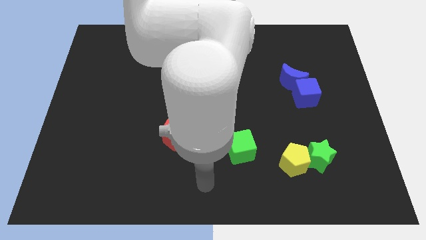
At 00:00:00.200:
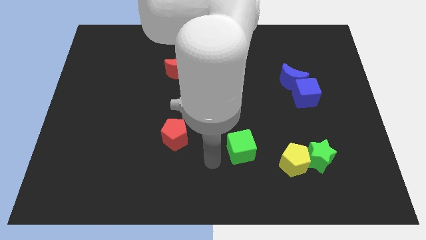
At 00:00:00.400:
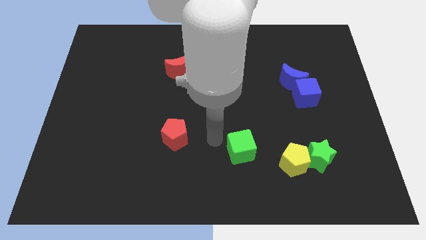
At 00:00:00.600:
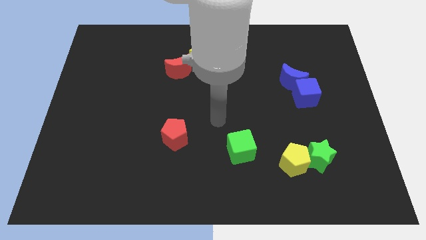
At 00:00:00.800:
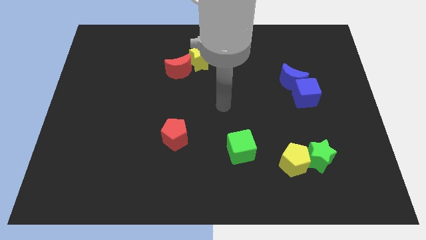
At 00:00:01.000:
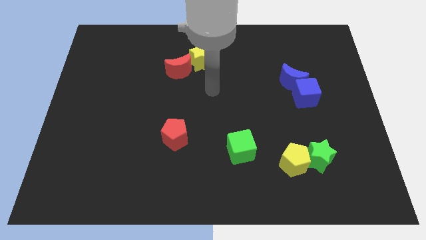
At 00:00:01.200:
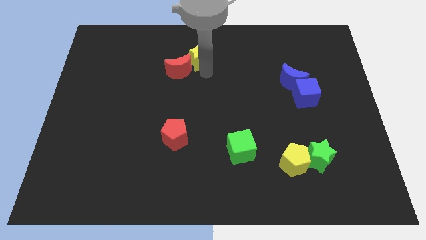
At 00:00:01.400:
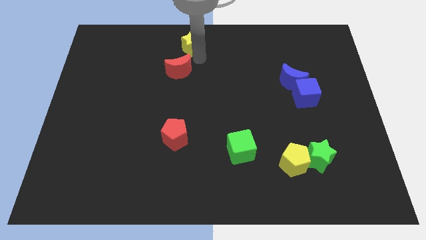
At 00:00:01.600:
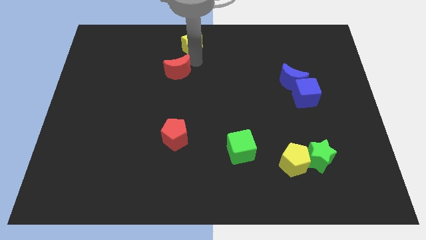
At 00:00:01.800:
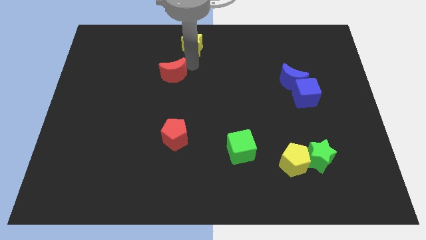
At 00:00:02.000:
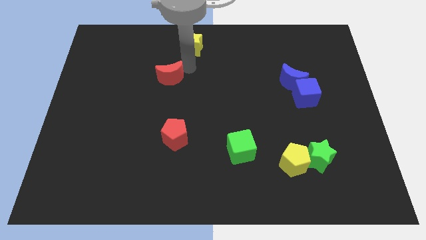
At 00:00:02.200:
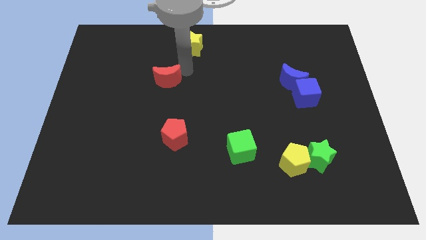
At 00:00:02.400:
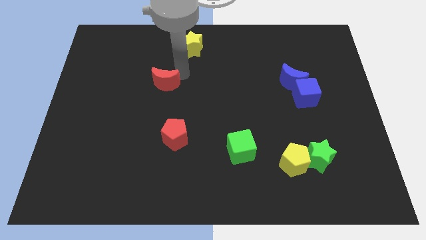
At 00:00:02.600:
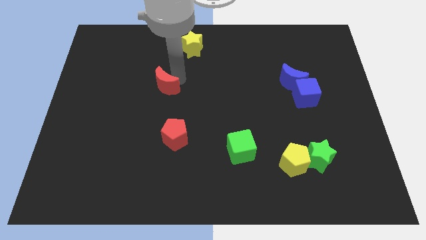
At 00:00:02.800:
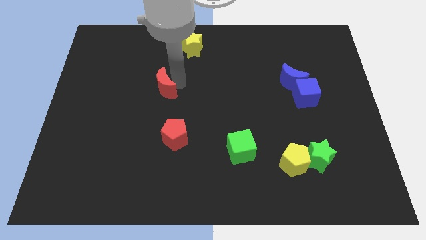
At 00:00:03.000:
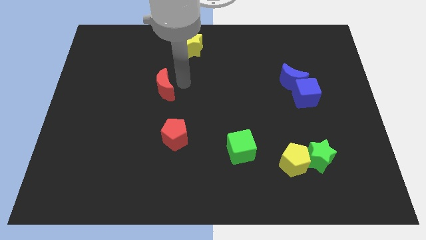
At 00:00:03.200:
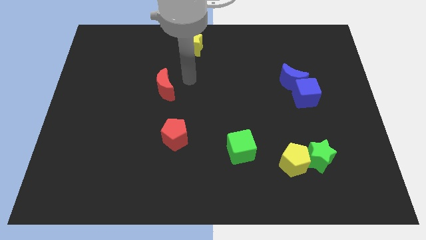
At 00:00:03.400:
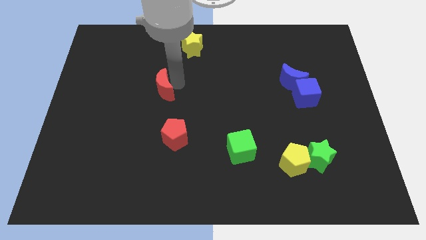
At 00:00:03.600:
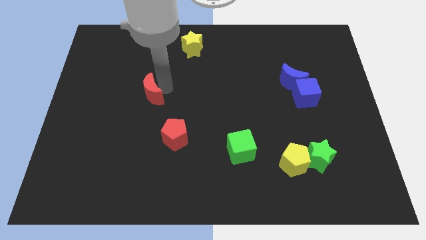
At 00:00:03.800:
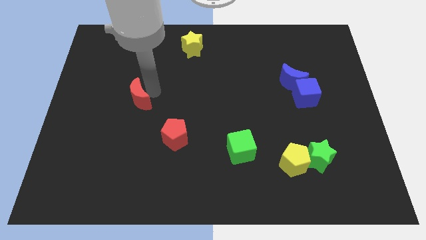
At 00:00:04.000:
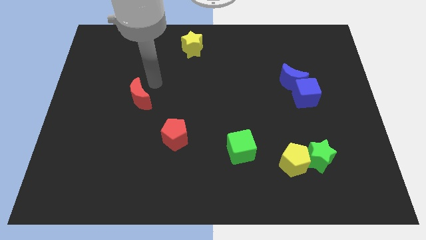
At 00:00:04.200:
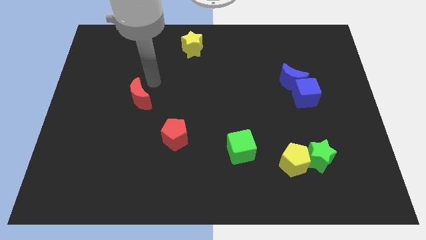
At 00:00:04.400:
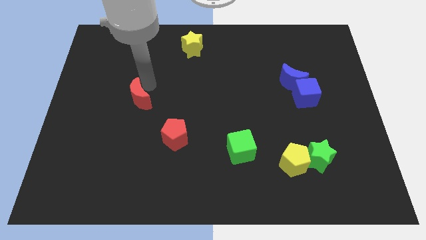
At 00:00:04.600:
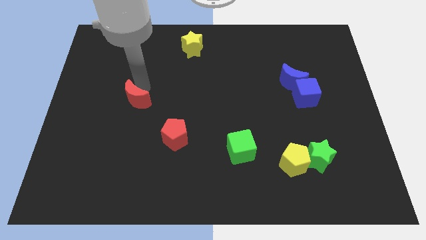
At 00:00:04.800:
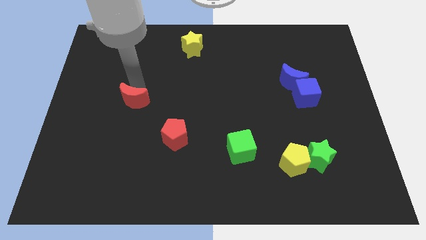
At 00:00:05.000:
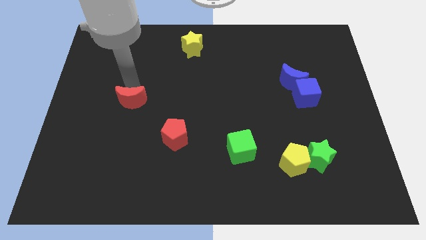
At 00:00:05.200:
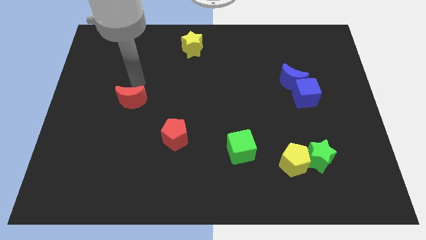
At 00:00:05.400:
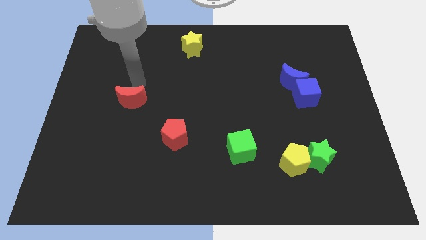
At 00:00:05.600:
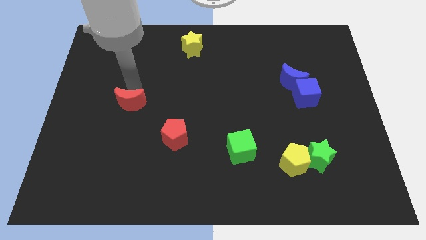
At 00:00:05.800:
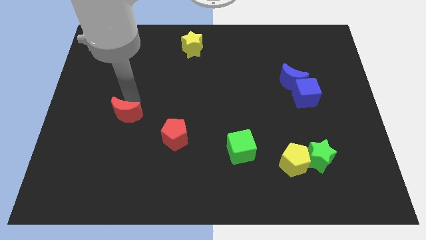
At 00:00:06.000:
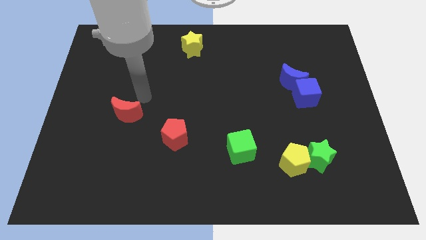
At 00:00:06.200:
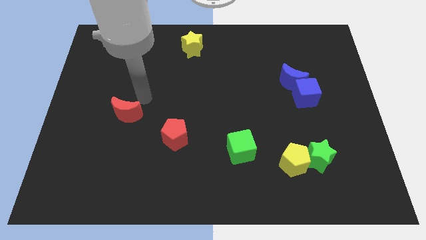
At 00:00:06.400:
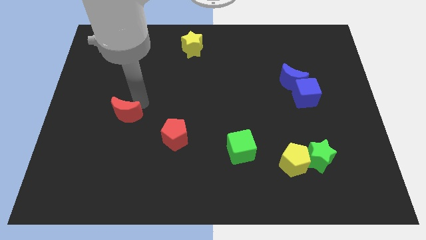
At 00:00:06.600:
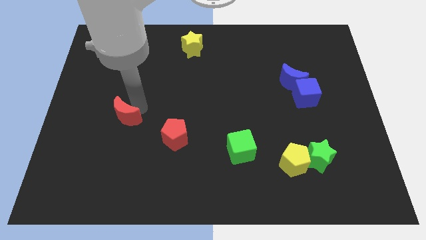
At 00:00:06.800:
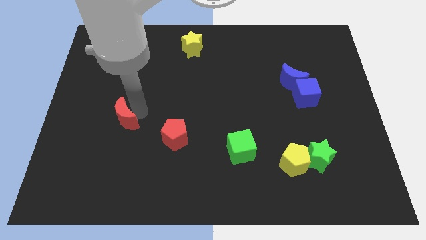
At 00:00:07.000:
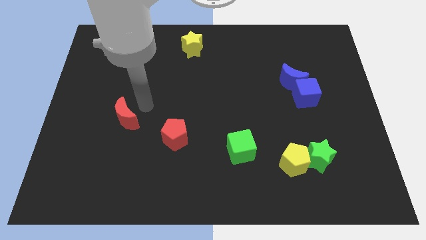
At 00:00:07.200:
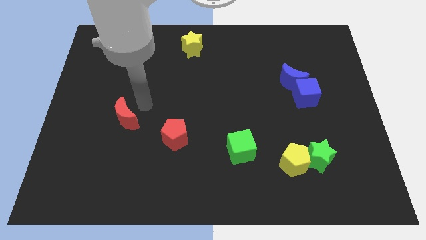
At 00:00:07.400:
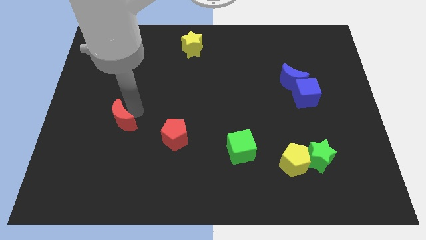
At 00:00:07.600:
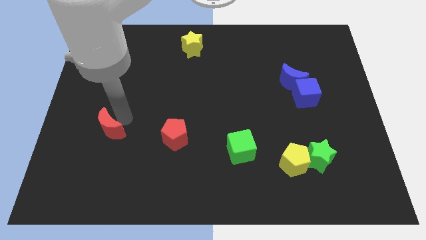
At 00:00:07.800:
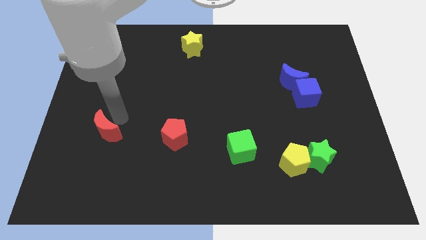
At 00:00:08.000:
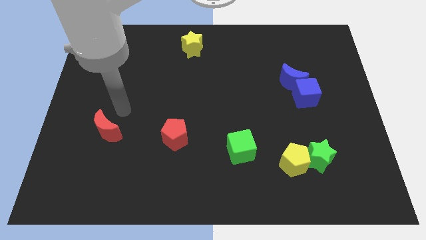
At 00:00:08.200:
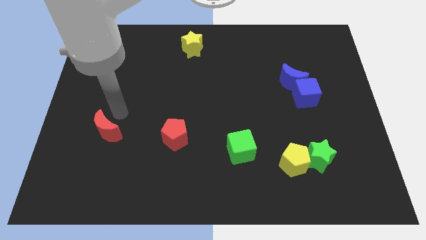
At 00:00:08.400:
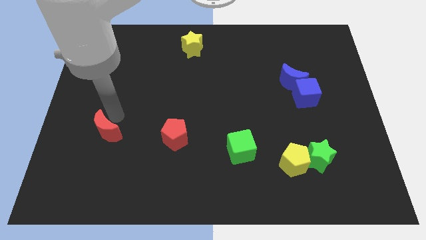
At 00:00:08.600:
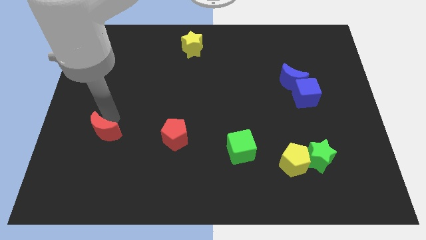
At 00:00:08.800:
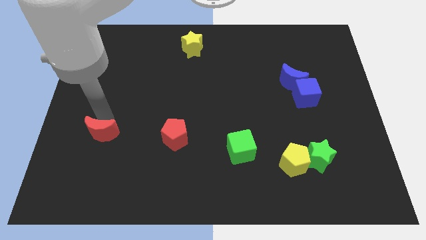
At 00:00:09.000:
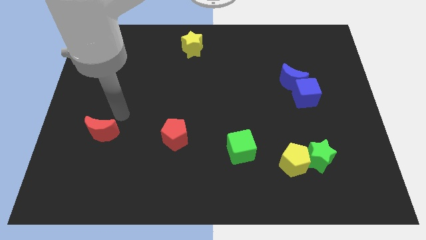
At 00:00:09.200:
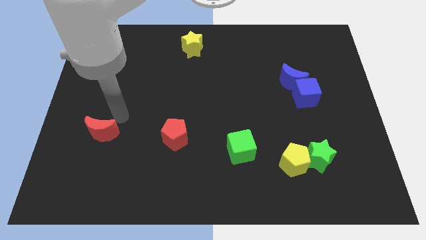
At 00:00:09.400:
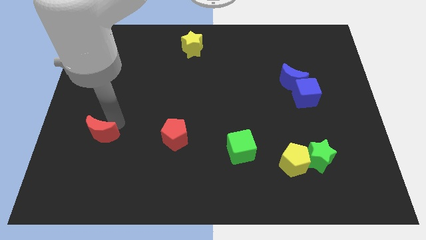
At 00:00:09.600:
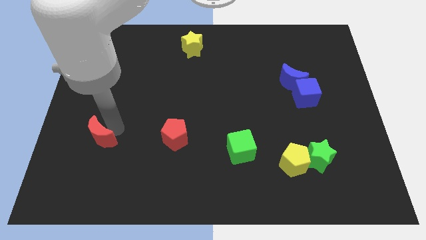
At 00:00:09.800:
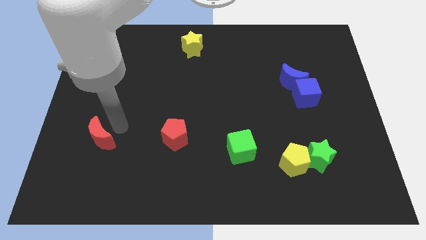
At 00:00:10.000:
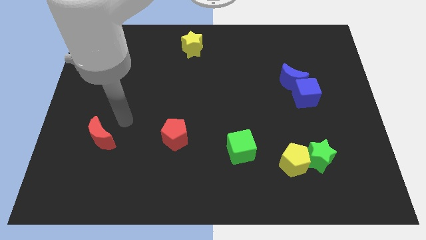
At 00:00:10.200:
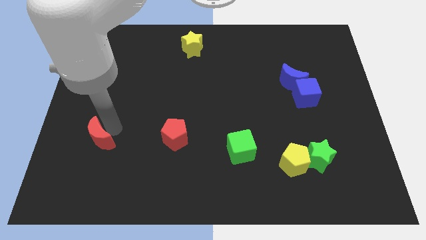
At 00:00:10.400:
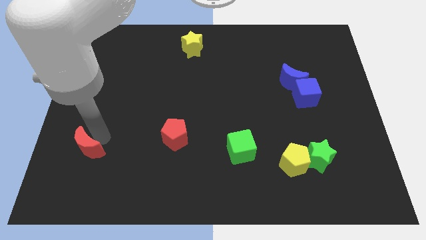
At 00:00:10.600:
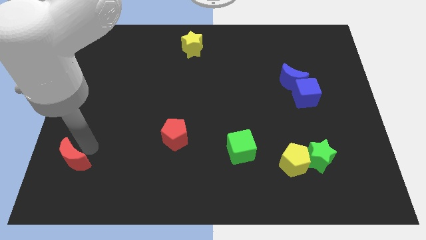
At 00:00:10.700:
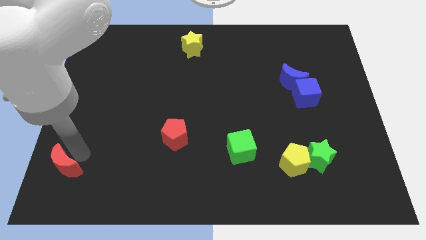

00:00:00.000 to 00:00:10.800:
move the red moon to the bottom left of the board

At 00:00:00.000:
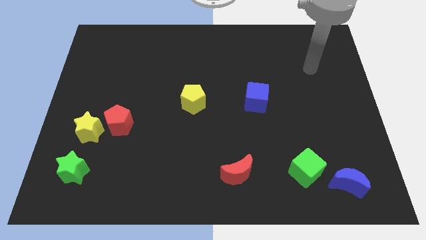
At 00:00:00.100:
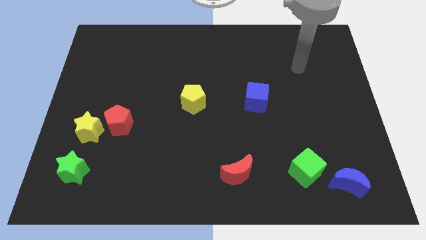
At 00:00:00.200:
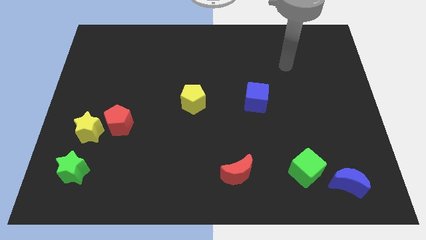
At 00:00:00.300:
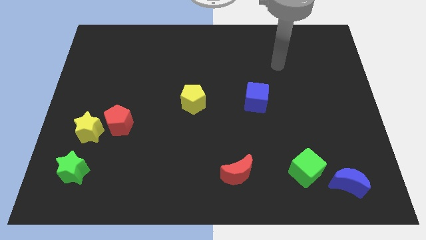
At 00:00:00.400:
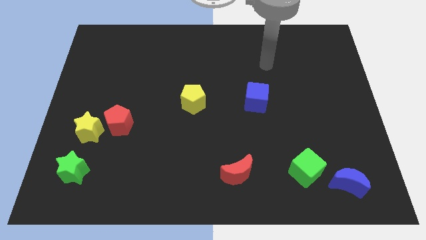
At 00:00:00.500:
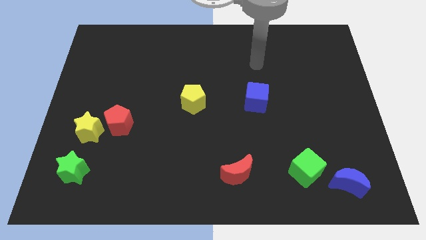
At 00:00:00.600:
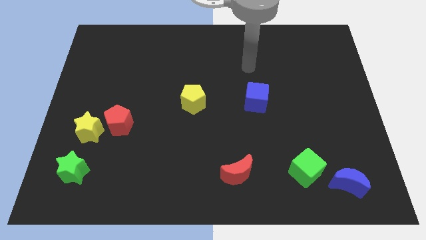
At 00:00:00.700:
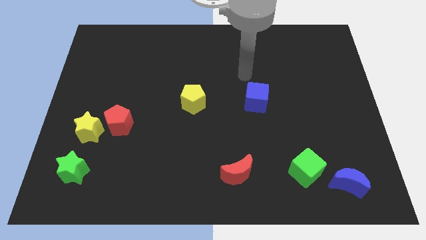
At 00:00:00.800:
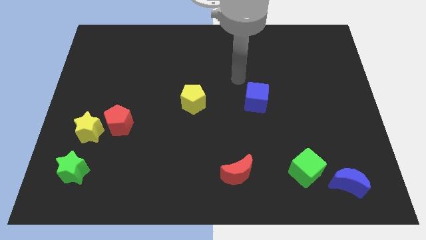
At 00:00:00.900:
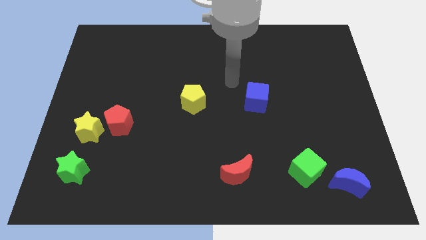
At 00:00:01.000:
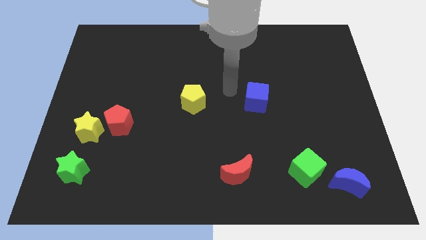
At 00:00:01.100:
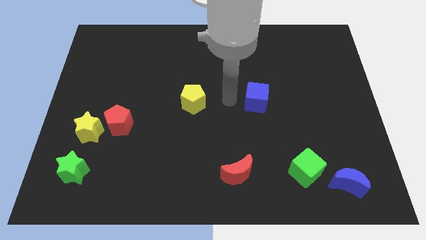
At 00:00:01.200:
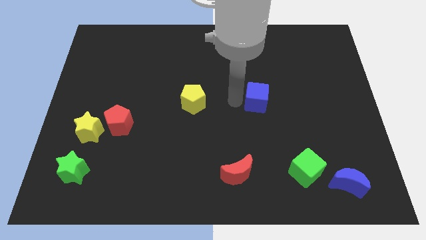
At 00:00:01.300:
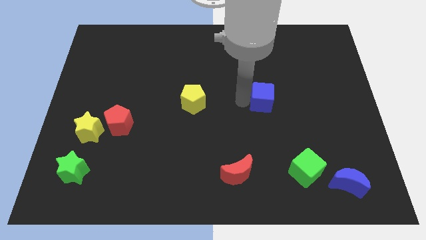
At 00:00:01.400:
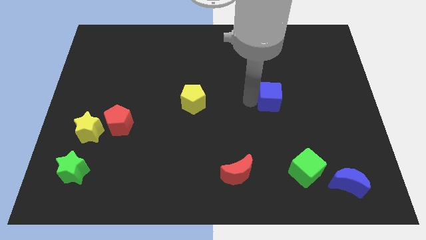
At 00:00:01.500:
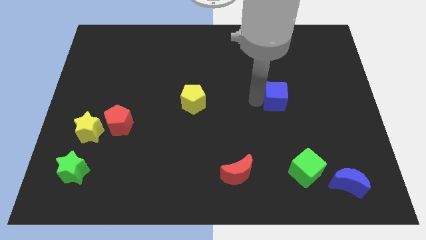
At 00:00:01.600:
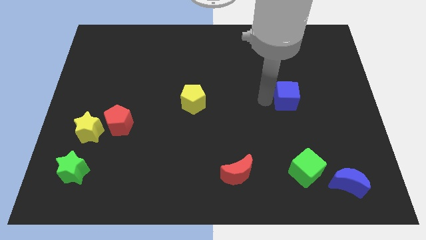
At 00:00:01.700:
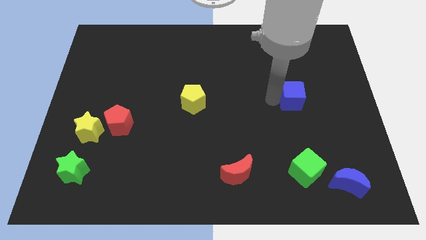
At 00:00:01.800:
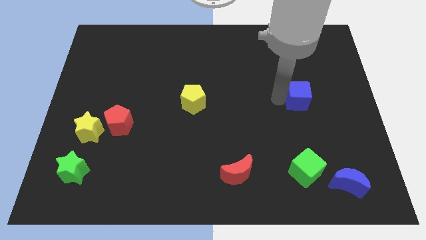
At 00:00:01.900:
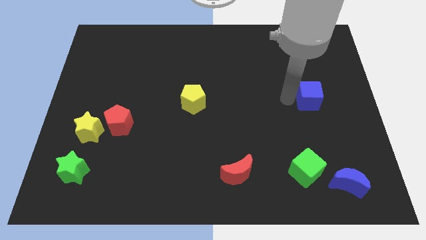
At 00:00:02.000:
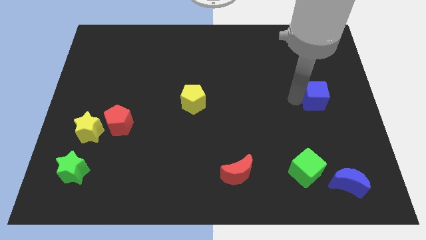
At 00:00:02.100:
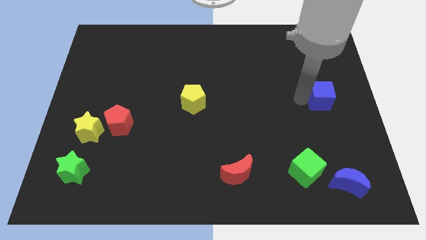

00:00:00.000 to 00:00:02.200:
move the blue cube to the center right

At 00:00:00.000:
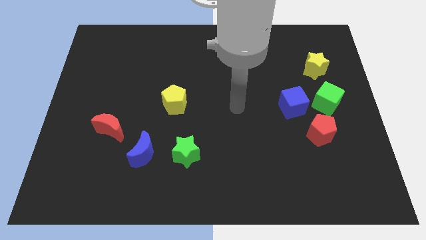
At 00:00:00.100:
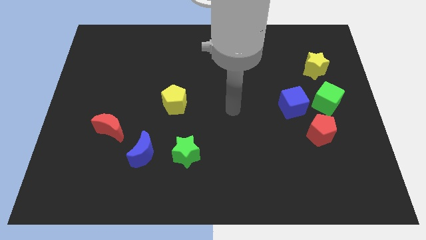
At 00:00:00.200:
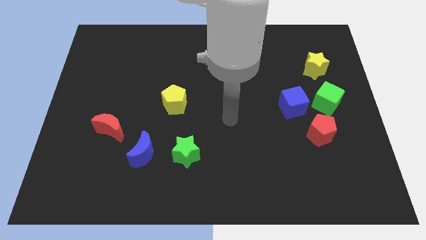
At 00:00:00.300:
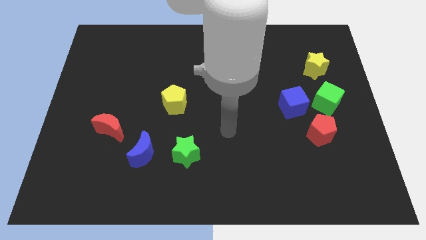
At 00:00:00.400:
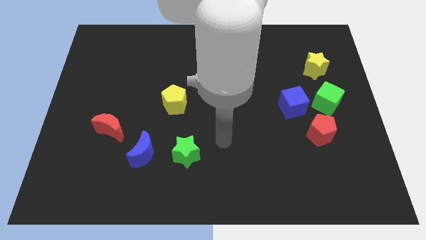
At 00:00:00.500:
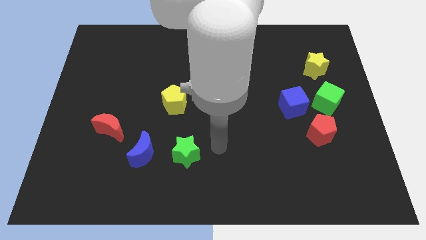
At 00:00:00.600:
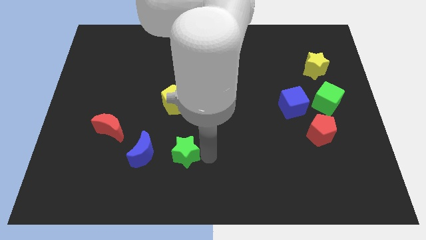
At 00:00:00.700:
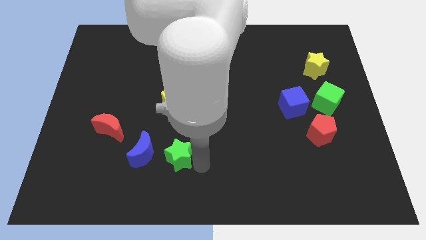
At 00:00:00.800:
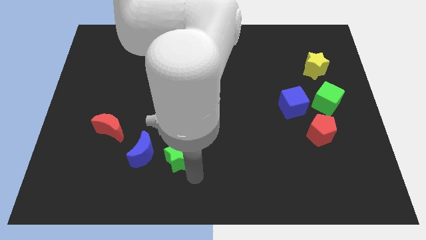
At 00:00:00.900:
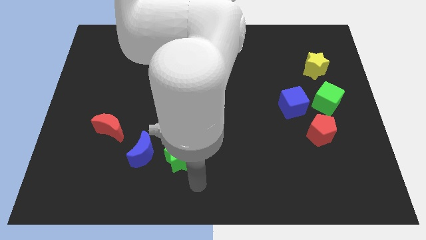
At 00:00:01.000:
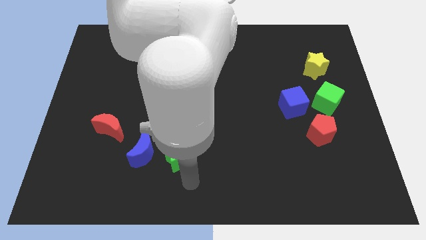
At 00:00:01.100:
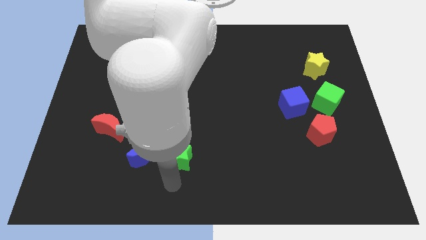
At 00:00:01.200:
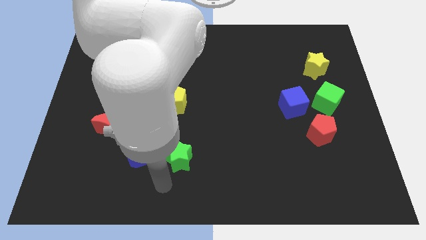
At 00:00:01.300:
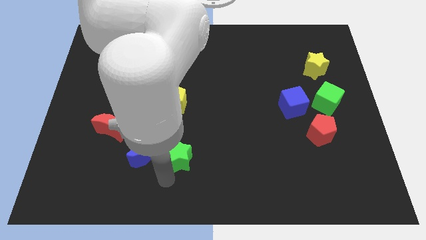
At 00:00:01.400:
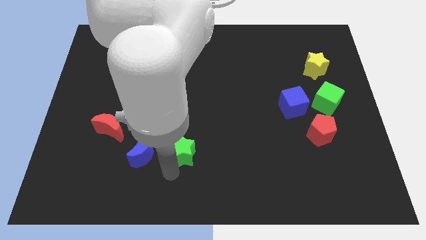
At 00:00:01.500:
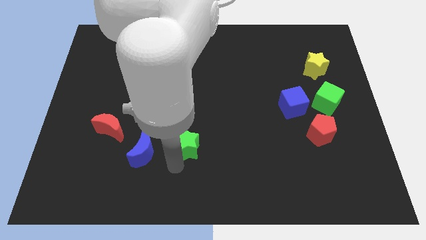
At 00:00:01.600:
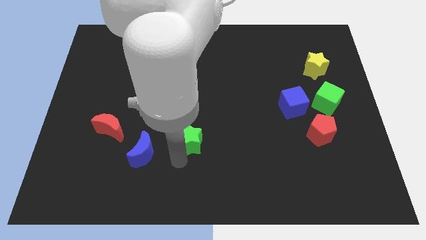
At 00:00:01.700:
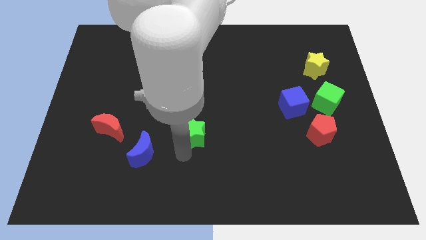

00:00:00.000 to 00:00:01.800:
slide the green star to the middle of the board
